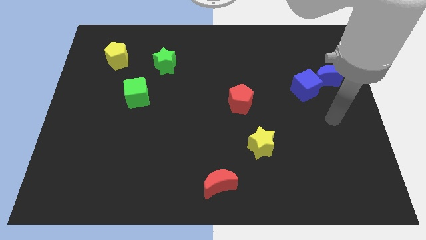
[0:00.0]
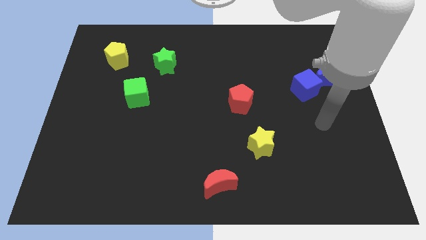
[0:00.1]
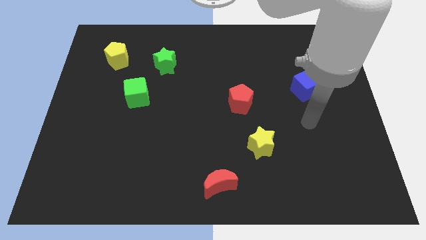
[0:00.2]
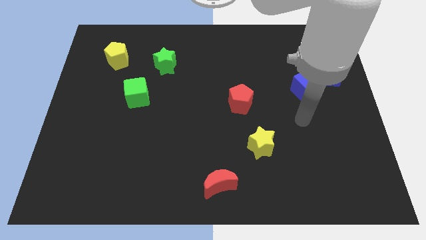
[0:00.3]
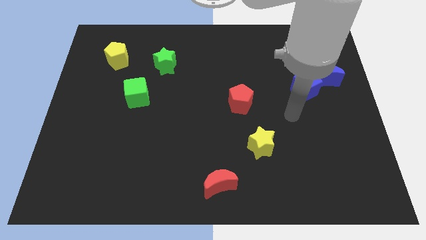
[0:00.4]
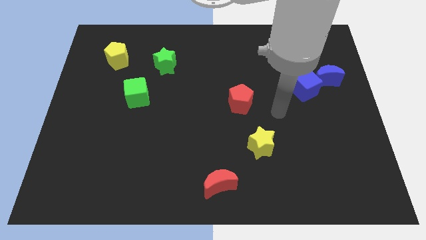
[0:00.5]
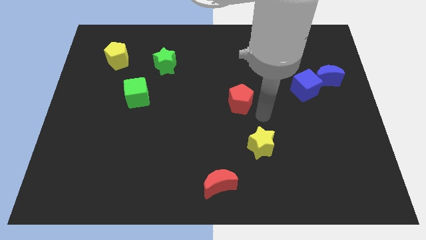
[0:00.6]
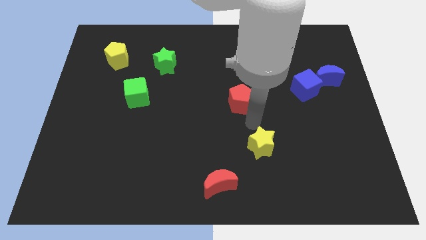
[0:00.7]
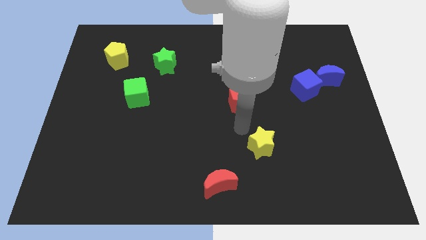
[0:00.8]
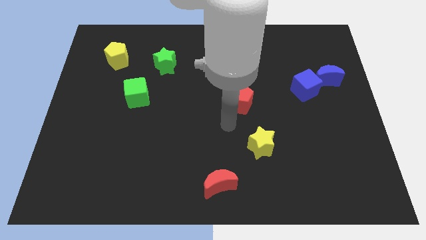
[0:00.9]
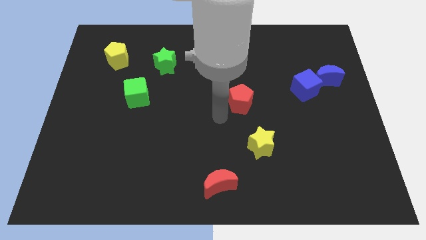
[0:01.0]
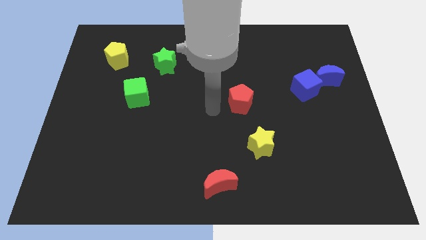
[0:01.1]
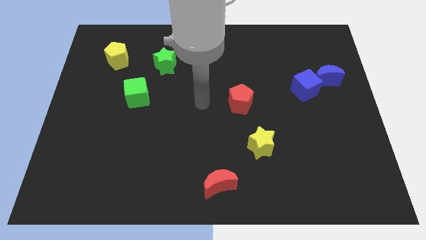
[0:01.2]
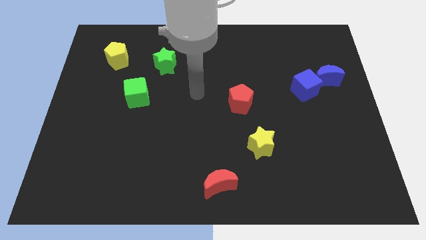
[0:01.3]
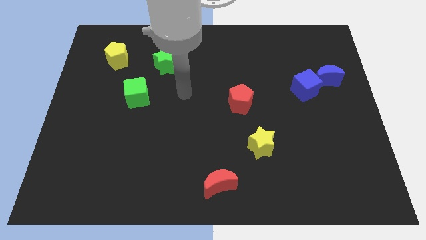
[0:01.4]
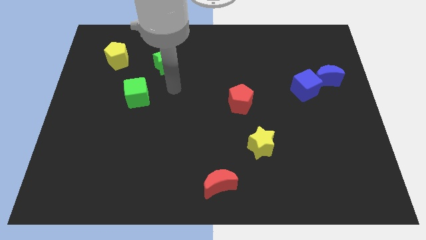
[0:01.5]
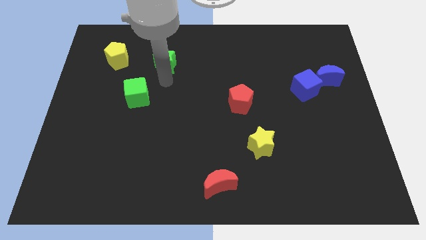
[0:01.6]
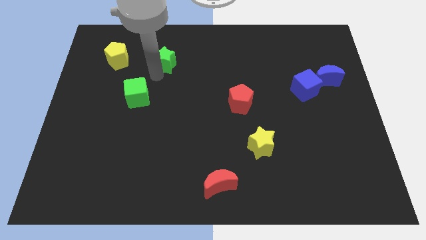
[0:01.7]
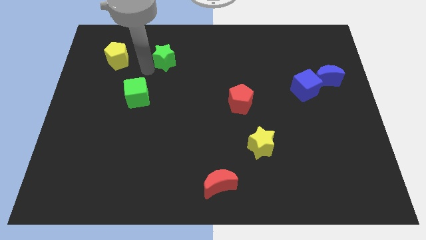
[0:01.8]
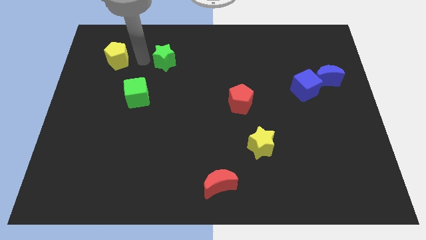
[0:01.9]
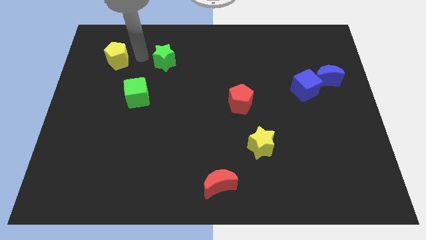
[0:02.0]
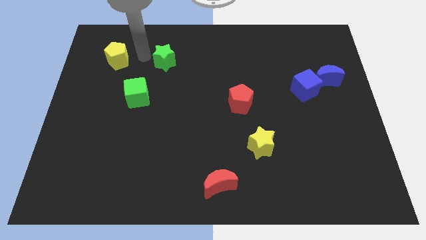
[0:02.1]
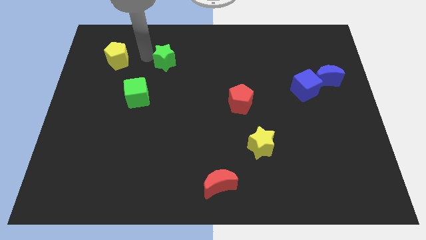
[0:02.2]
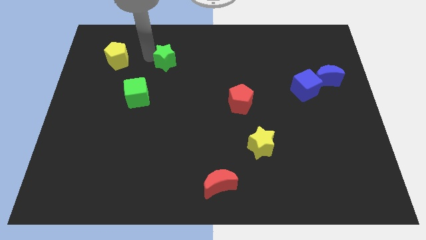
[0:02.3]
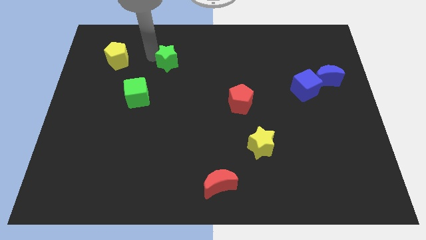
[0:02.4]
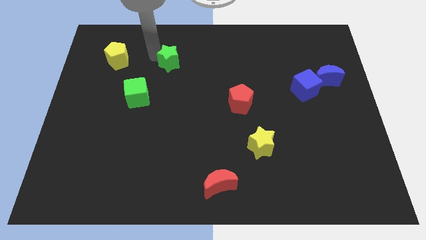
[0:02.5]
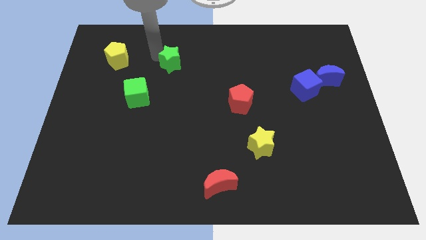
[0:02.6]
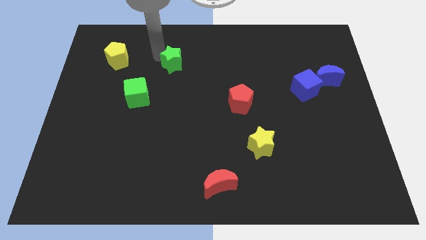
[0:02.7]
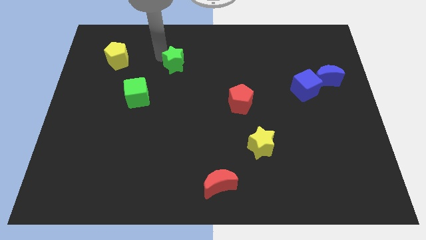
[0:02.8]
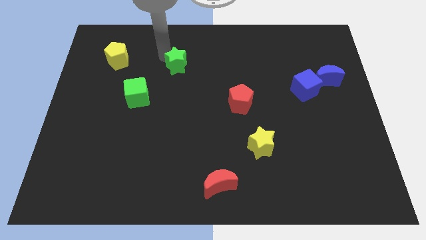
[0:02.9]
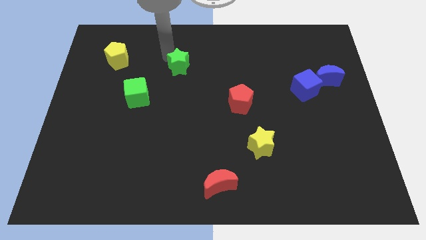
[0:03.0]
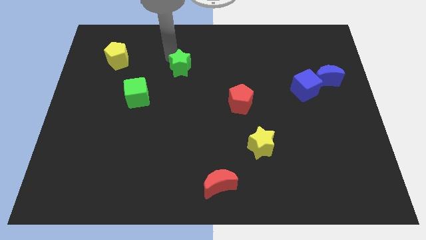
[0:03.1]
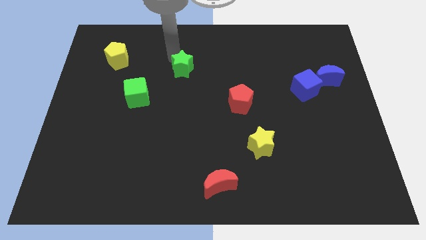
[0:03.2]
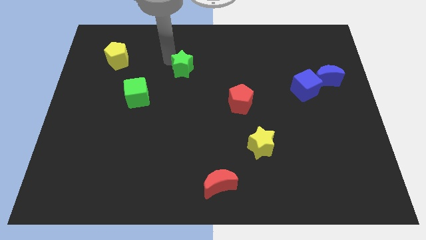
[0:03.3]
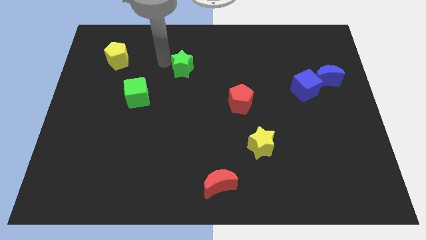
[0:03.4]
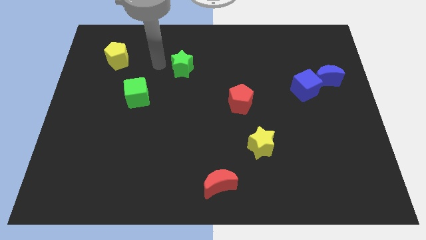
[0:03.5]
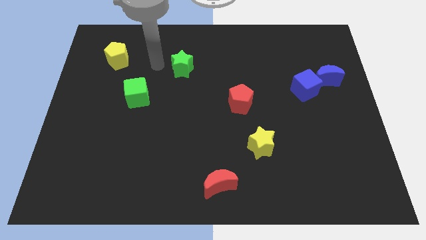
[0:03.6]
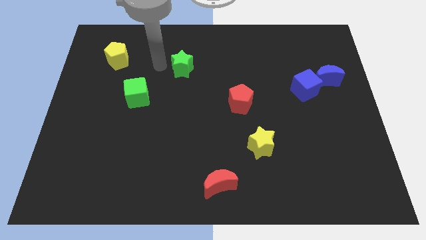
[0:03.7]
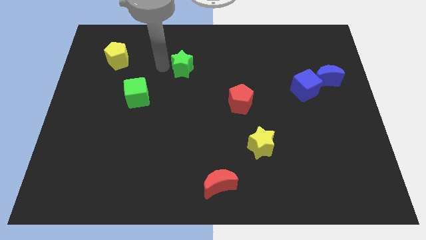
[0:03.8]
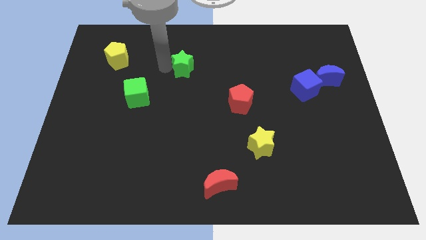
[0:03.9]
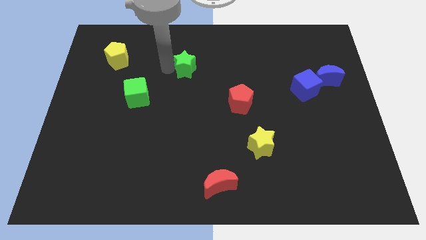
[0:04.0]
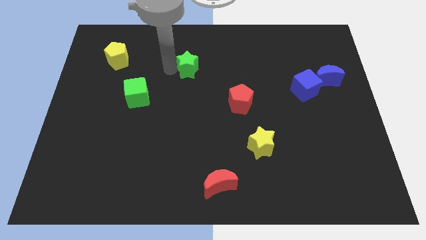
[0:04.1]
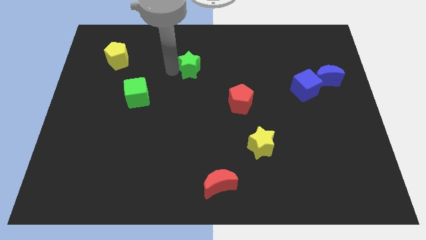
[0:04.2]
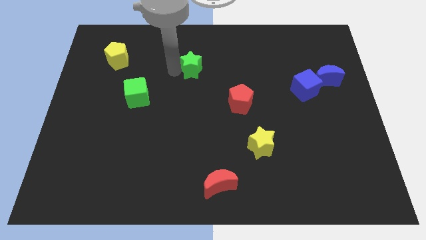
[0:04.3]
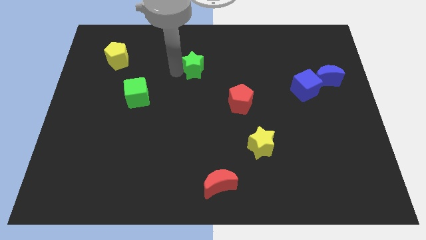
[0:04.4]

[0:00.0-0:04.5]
push the green star right a little bit

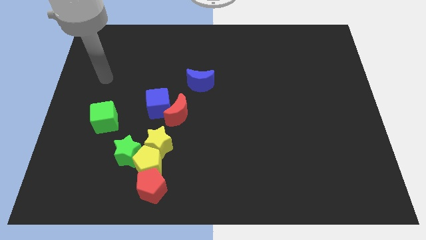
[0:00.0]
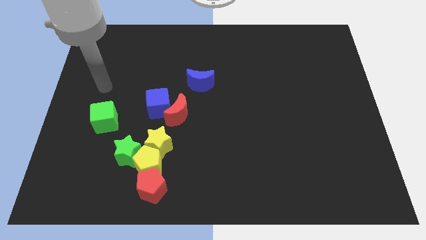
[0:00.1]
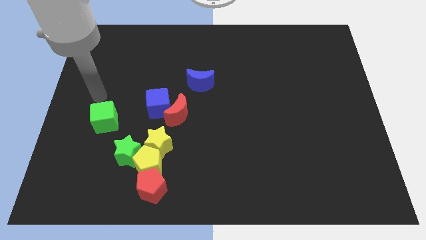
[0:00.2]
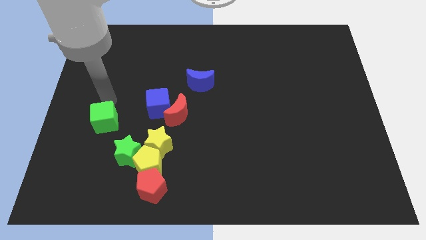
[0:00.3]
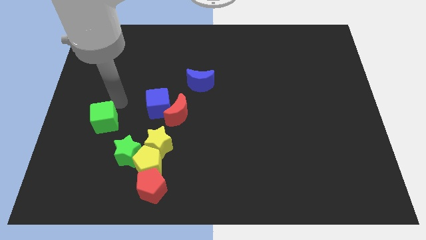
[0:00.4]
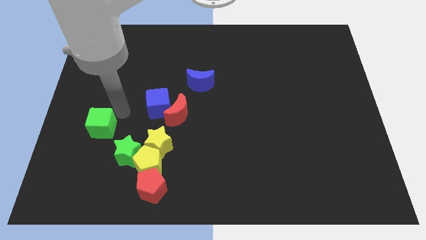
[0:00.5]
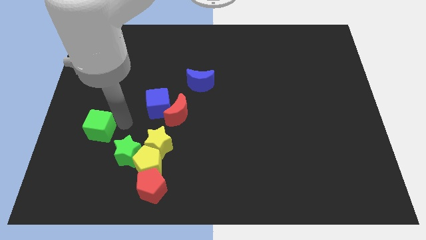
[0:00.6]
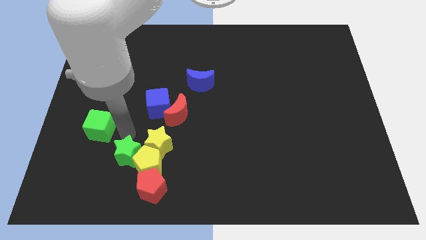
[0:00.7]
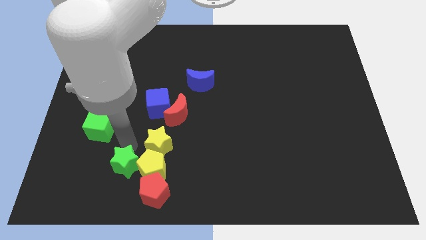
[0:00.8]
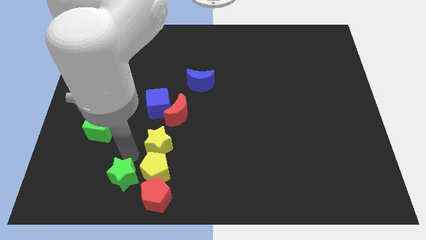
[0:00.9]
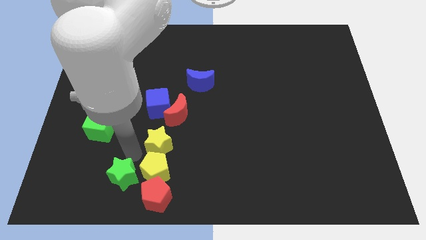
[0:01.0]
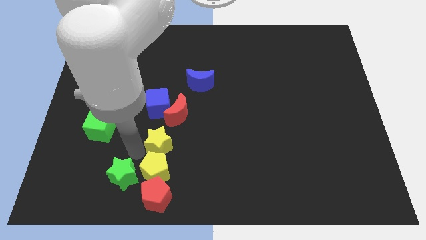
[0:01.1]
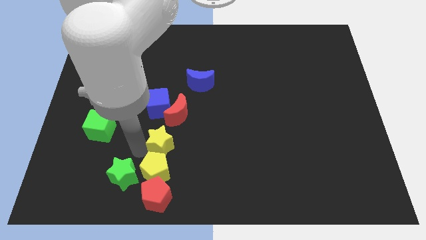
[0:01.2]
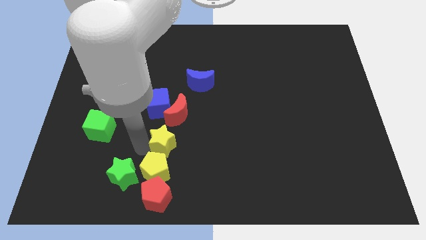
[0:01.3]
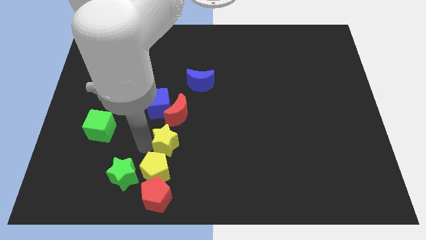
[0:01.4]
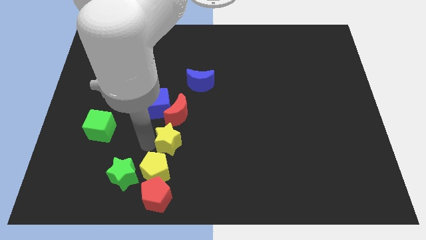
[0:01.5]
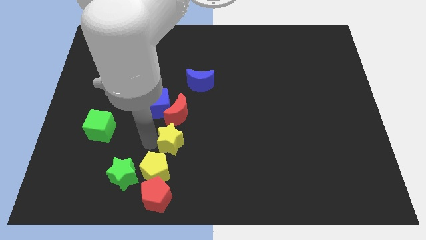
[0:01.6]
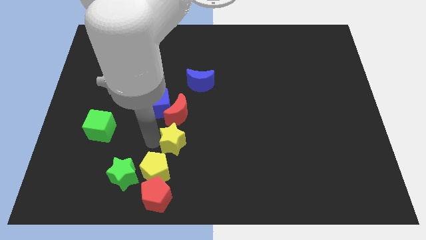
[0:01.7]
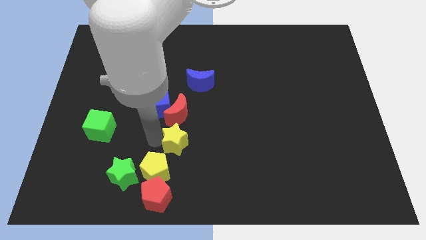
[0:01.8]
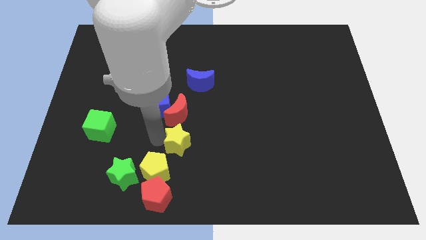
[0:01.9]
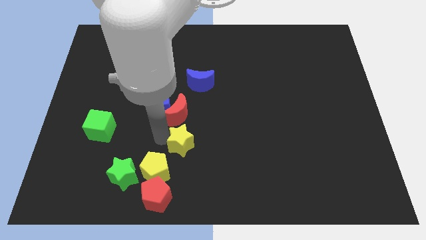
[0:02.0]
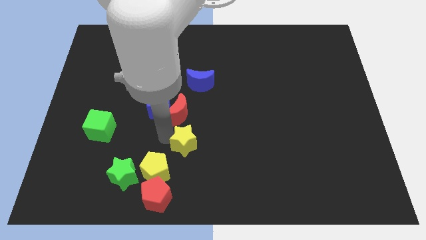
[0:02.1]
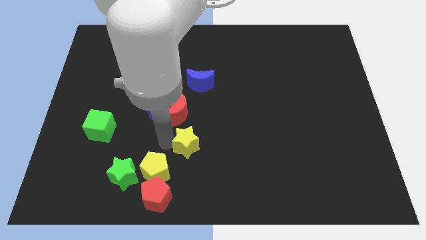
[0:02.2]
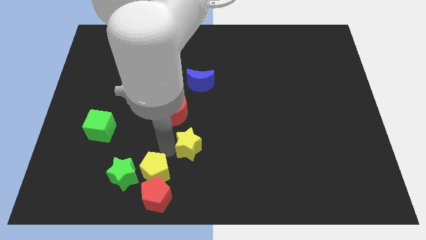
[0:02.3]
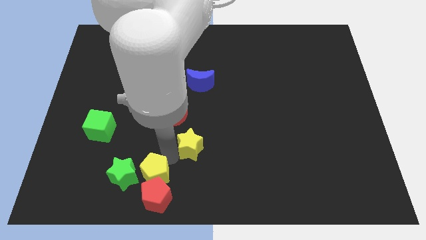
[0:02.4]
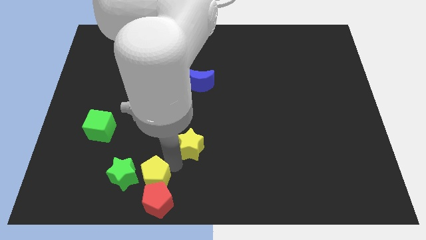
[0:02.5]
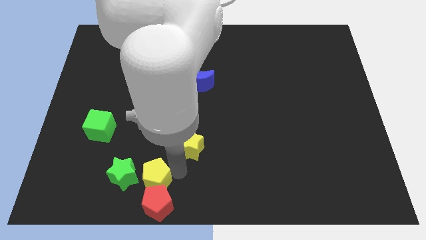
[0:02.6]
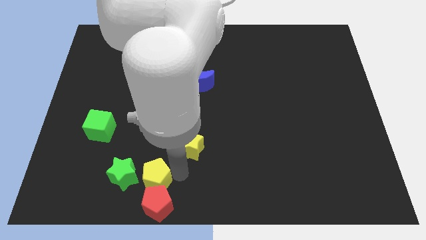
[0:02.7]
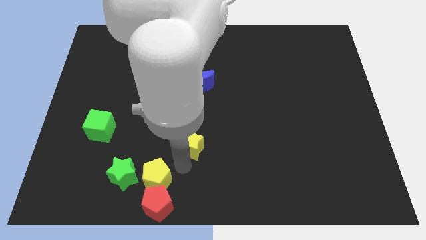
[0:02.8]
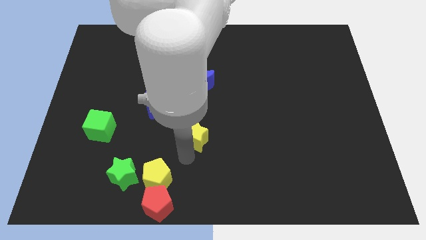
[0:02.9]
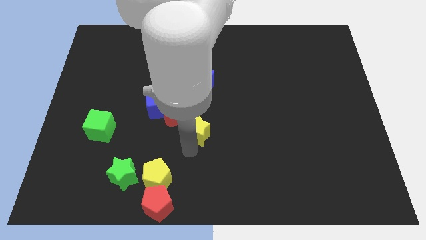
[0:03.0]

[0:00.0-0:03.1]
move the yellow star a little bit upwards and to the right
